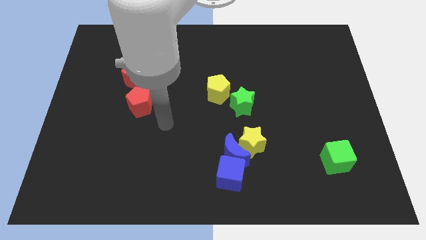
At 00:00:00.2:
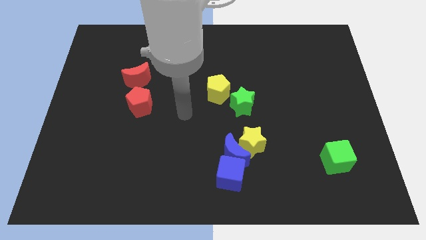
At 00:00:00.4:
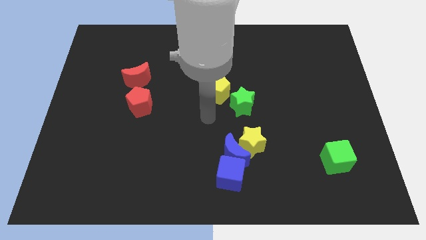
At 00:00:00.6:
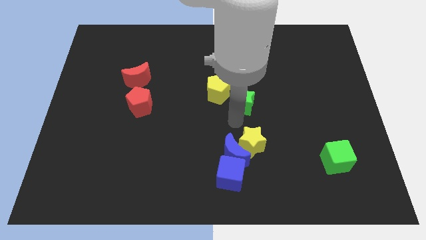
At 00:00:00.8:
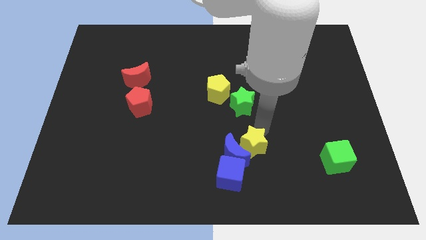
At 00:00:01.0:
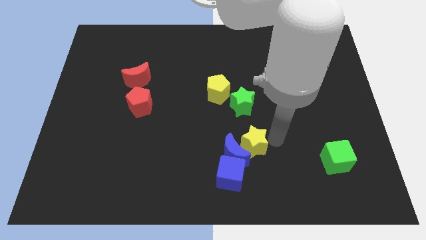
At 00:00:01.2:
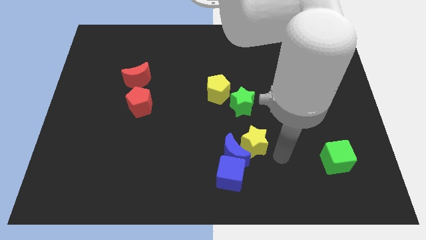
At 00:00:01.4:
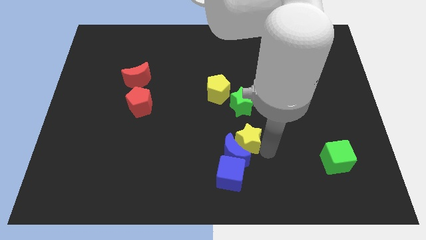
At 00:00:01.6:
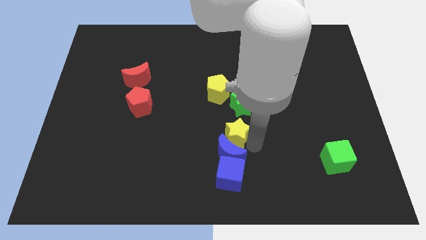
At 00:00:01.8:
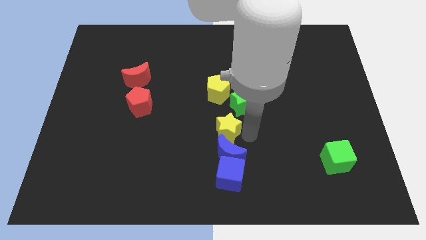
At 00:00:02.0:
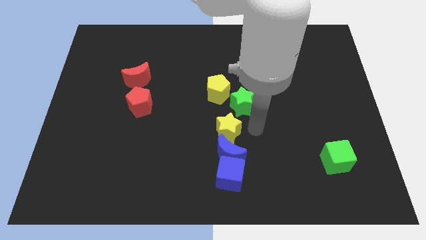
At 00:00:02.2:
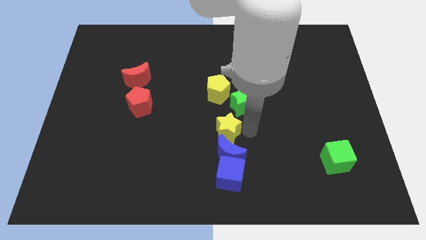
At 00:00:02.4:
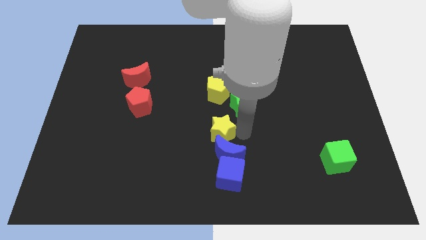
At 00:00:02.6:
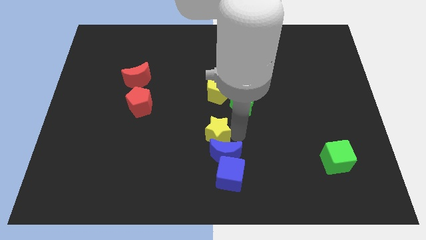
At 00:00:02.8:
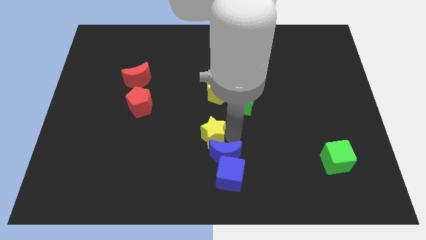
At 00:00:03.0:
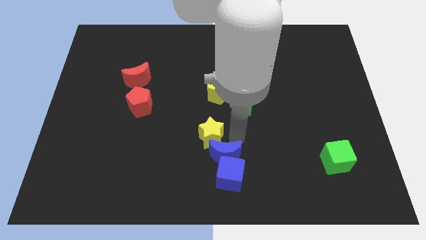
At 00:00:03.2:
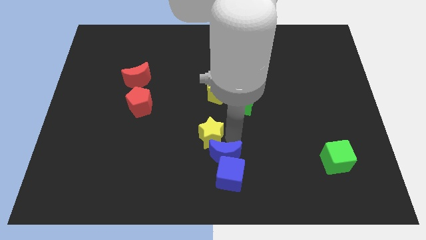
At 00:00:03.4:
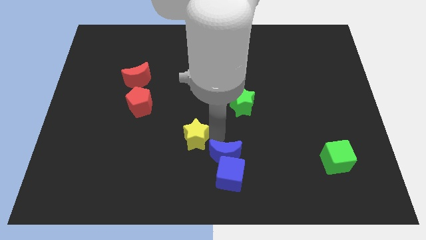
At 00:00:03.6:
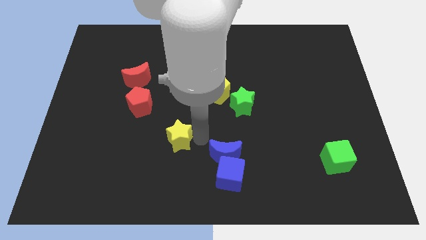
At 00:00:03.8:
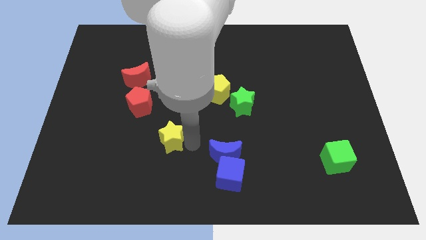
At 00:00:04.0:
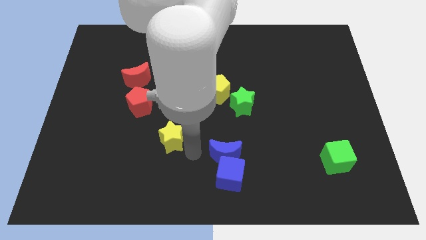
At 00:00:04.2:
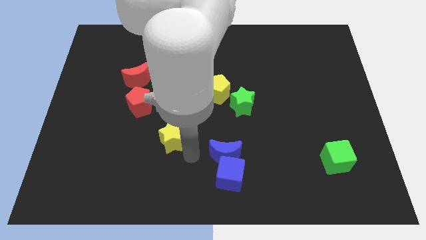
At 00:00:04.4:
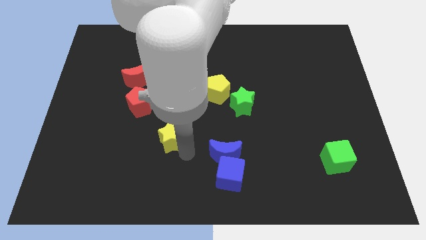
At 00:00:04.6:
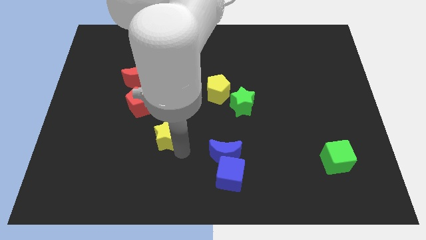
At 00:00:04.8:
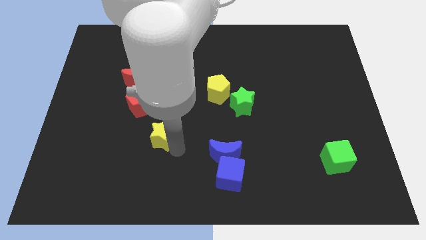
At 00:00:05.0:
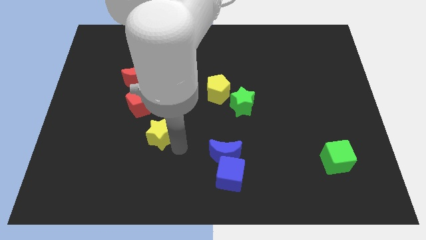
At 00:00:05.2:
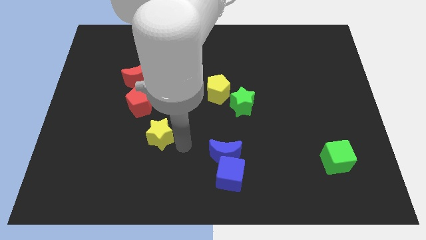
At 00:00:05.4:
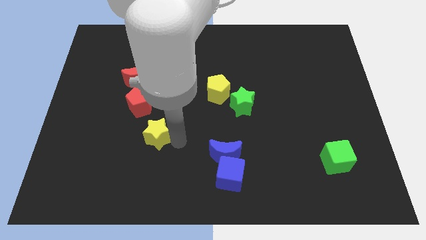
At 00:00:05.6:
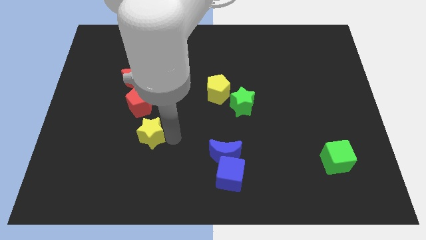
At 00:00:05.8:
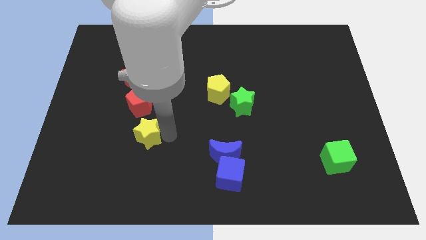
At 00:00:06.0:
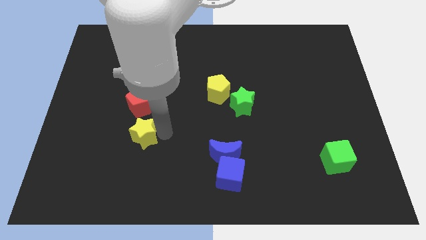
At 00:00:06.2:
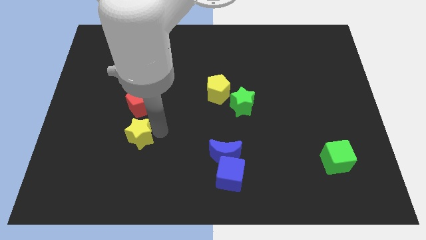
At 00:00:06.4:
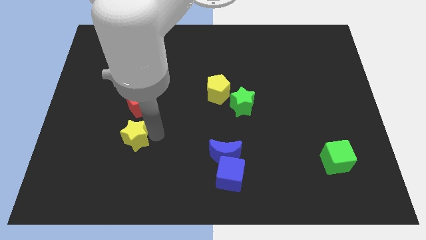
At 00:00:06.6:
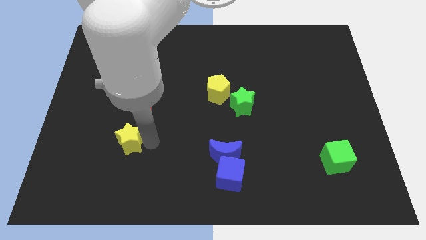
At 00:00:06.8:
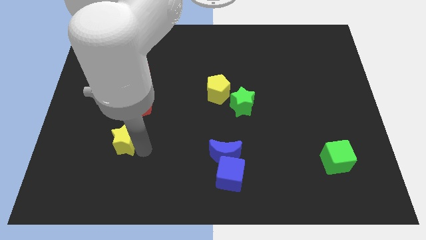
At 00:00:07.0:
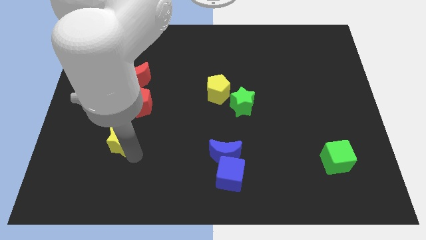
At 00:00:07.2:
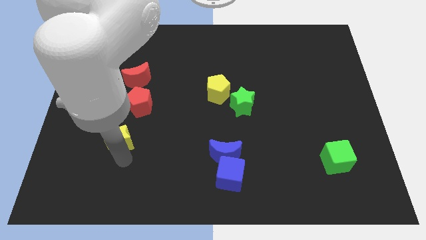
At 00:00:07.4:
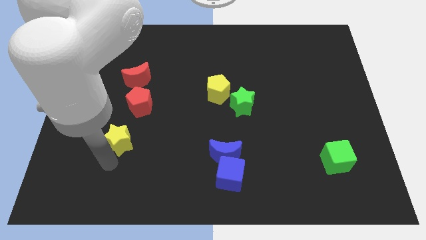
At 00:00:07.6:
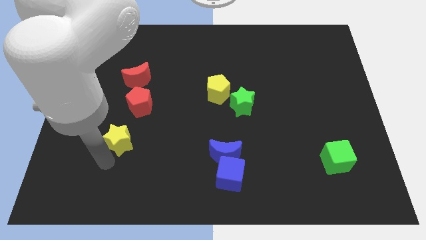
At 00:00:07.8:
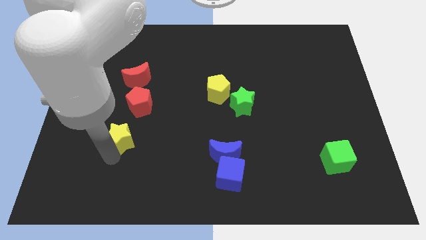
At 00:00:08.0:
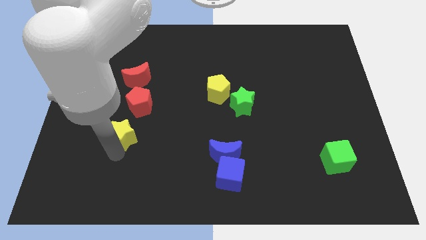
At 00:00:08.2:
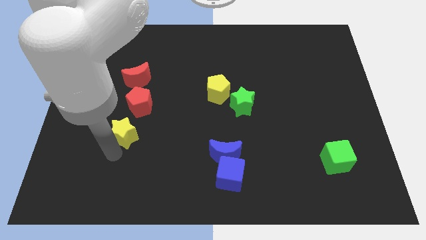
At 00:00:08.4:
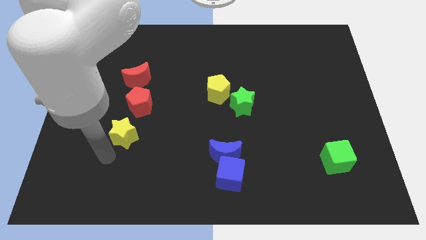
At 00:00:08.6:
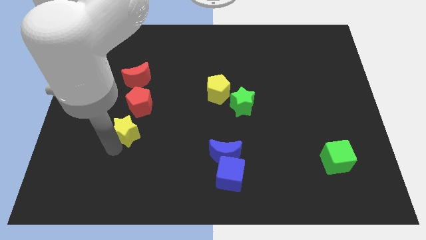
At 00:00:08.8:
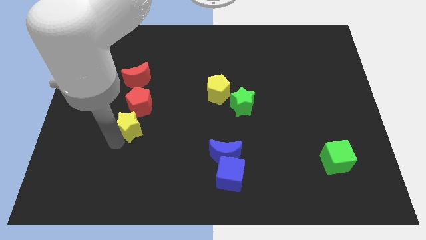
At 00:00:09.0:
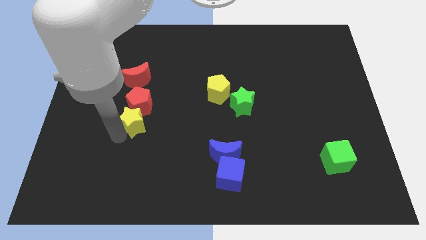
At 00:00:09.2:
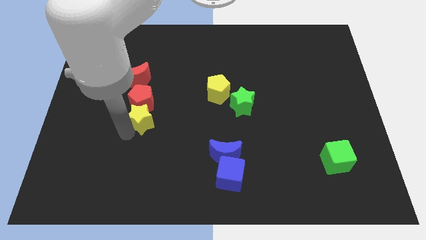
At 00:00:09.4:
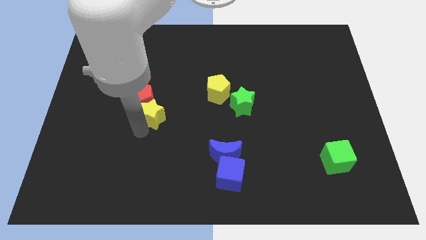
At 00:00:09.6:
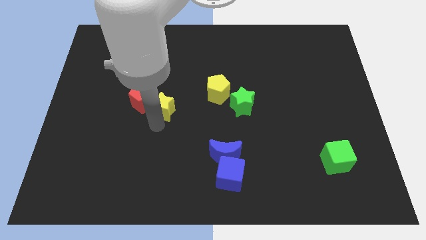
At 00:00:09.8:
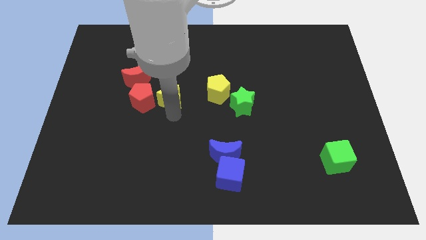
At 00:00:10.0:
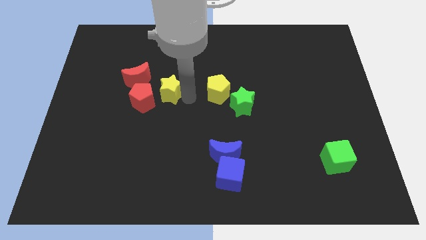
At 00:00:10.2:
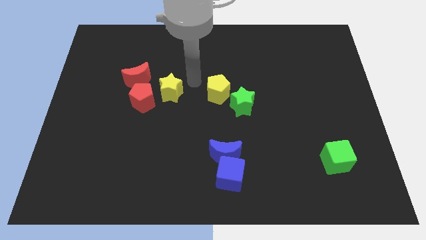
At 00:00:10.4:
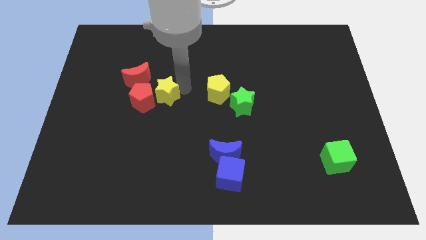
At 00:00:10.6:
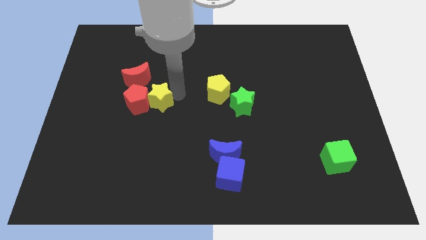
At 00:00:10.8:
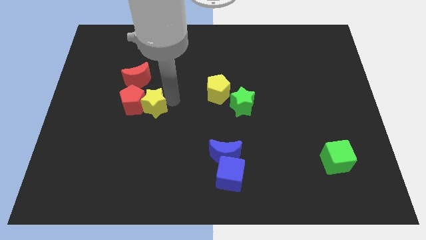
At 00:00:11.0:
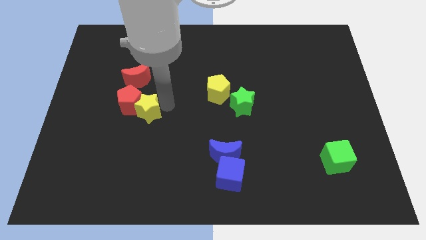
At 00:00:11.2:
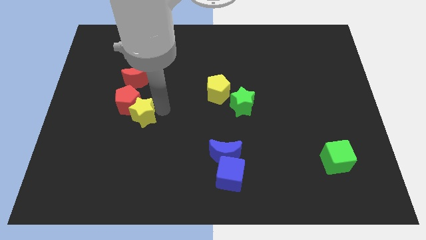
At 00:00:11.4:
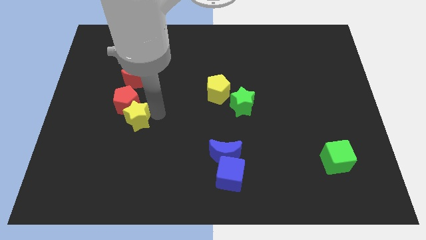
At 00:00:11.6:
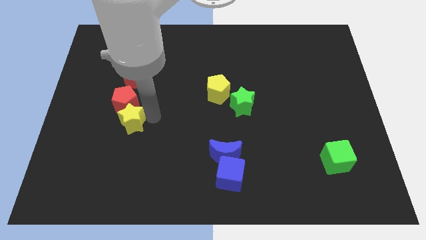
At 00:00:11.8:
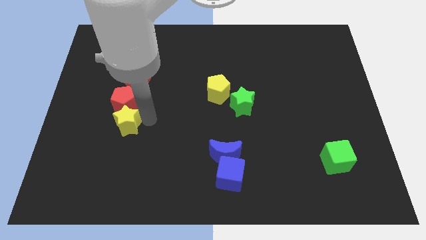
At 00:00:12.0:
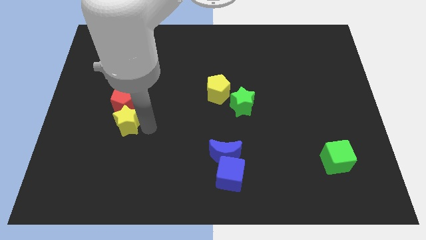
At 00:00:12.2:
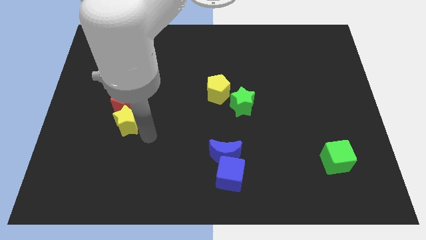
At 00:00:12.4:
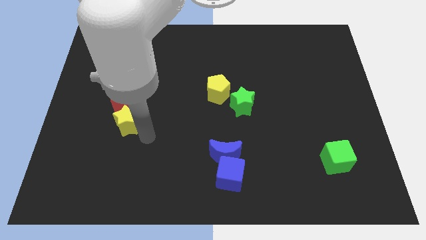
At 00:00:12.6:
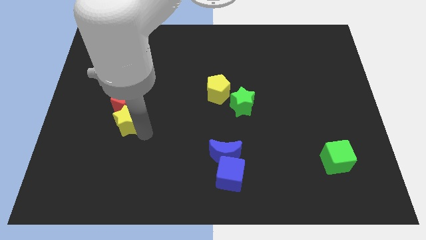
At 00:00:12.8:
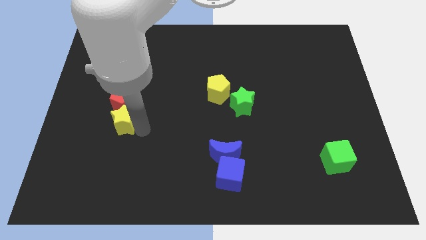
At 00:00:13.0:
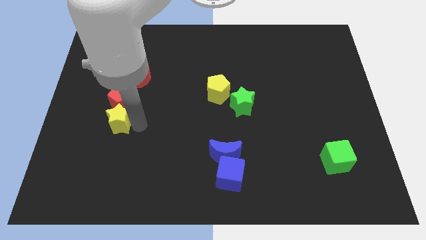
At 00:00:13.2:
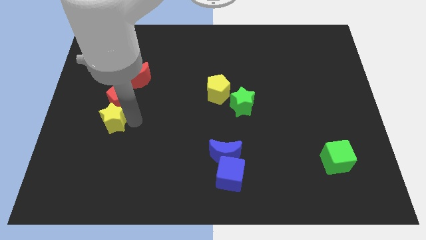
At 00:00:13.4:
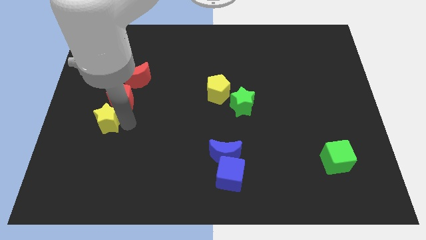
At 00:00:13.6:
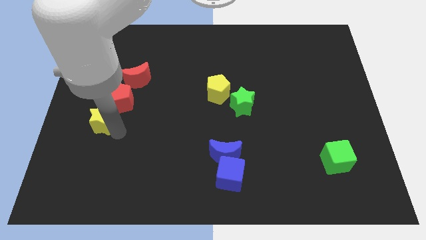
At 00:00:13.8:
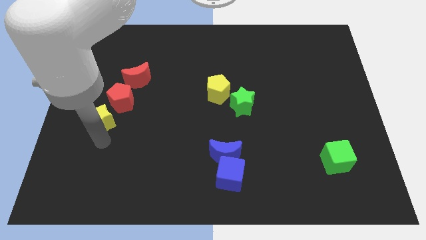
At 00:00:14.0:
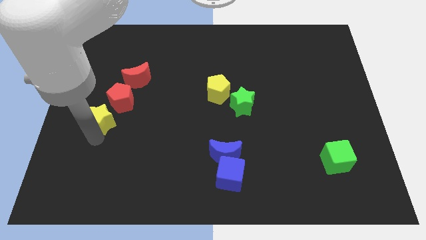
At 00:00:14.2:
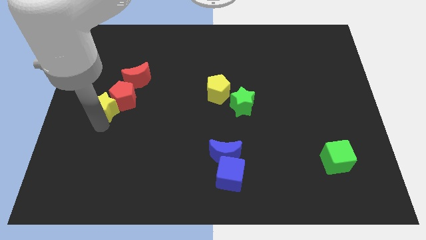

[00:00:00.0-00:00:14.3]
put the yellow star to the bottom left of the red moon

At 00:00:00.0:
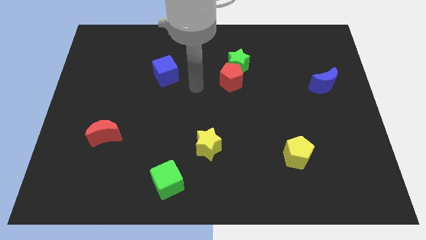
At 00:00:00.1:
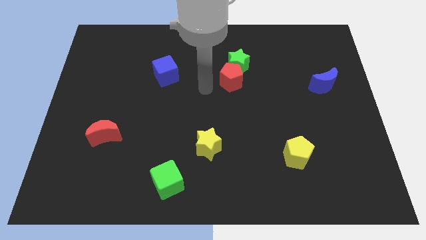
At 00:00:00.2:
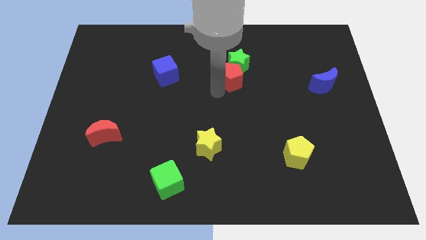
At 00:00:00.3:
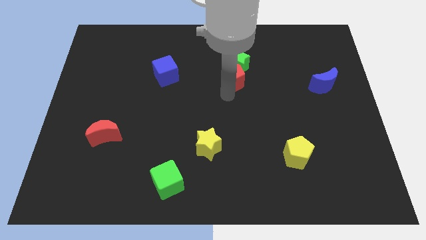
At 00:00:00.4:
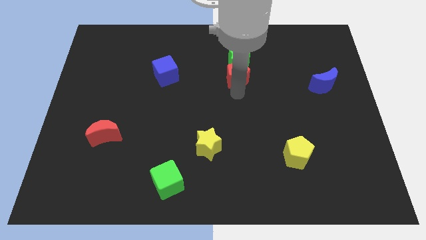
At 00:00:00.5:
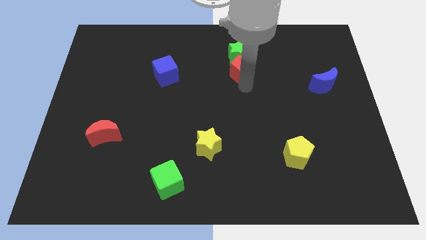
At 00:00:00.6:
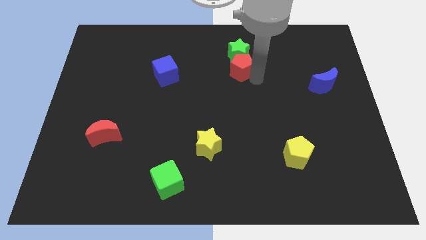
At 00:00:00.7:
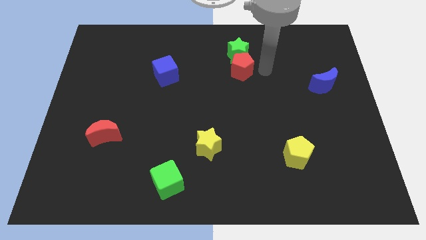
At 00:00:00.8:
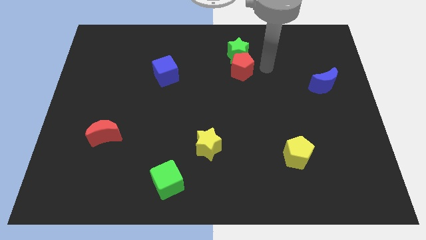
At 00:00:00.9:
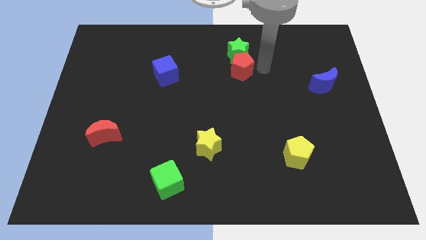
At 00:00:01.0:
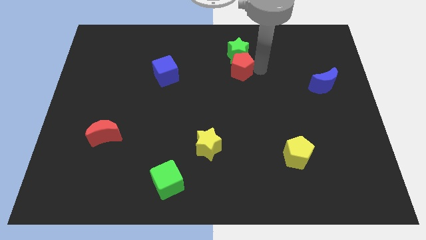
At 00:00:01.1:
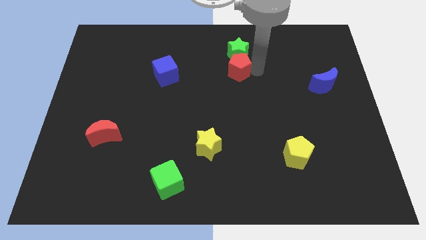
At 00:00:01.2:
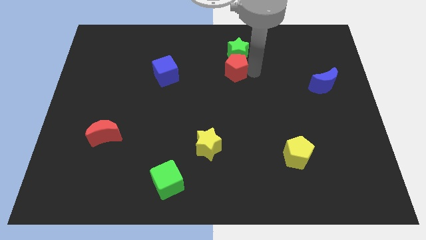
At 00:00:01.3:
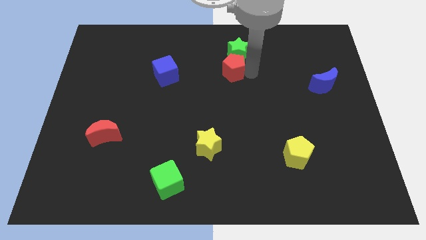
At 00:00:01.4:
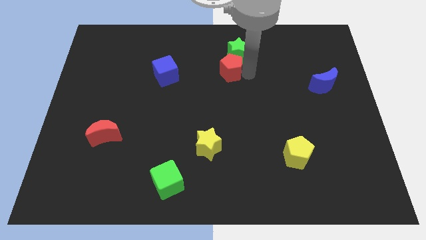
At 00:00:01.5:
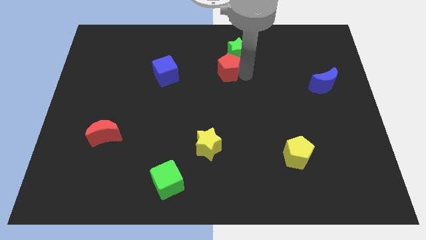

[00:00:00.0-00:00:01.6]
push the red pentagon to the right side of the blue cube
